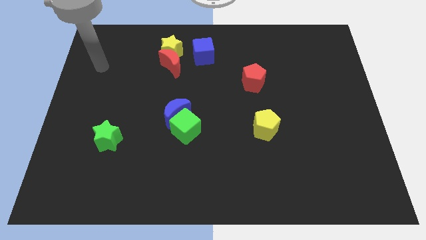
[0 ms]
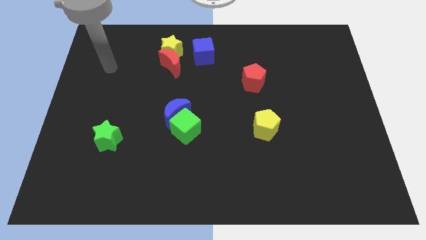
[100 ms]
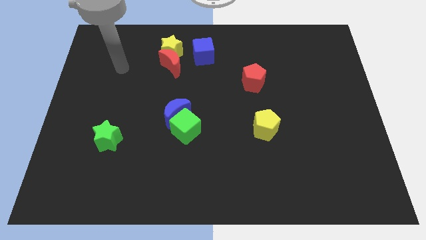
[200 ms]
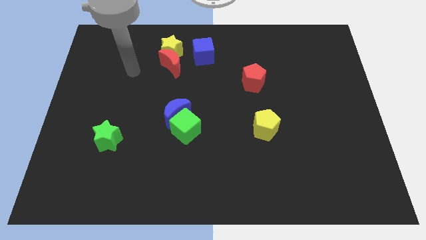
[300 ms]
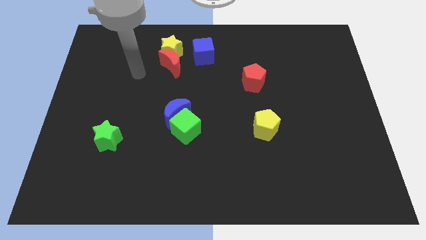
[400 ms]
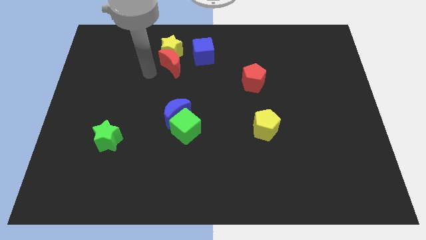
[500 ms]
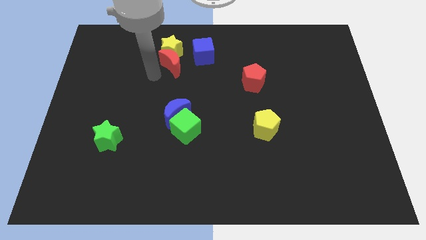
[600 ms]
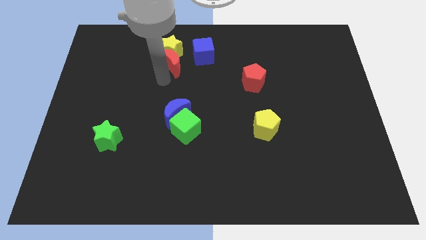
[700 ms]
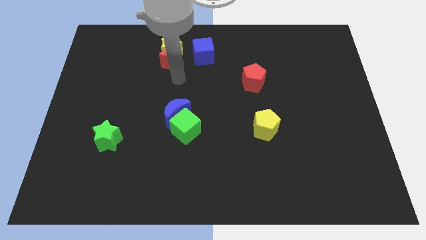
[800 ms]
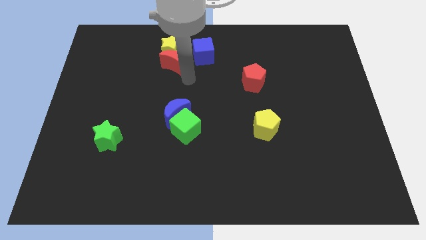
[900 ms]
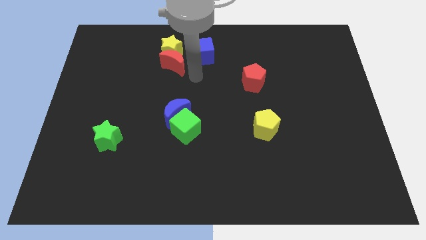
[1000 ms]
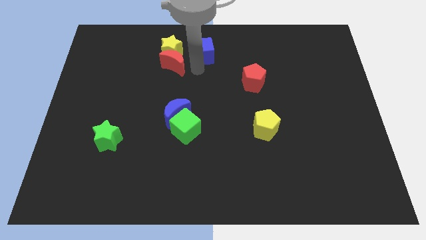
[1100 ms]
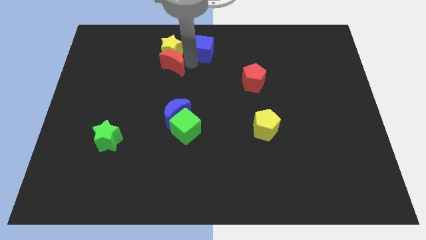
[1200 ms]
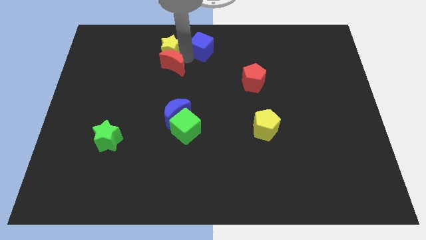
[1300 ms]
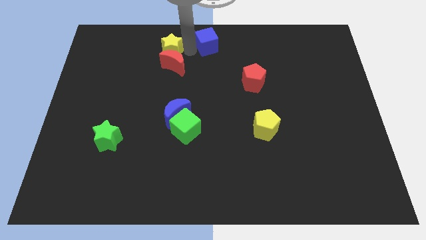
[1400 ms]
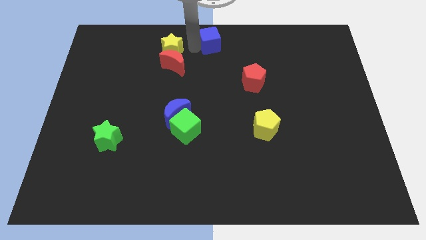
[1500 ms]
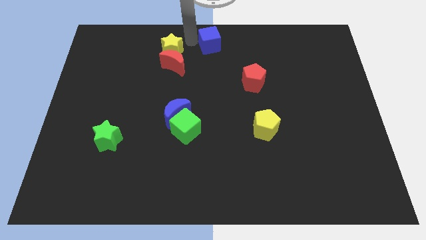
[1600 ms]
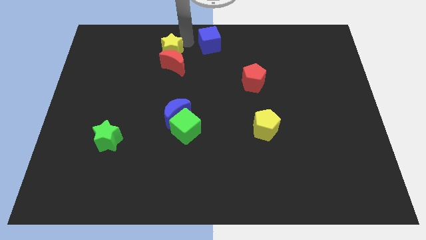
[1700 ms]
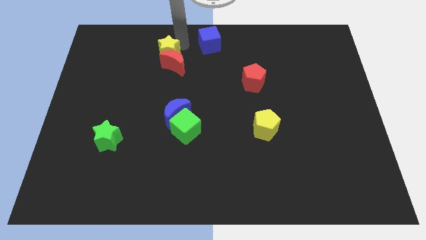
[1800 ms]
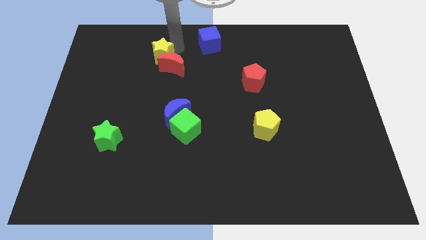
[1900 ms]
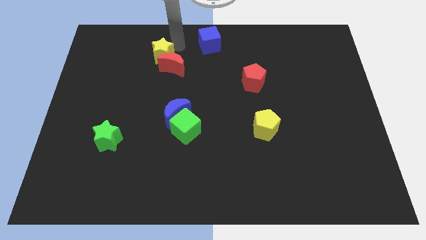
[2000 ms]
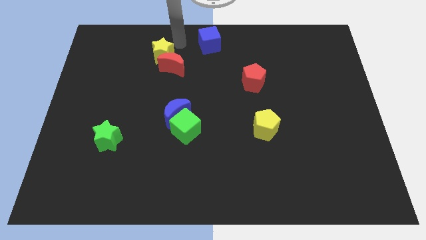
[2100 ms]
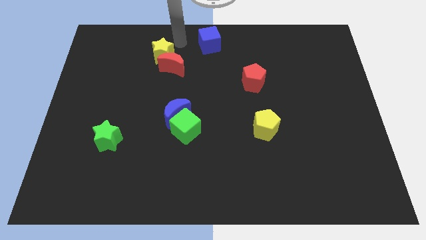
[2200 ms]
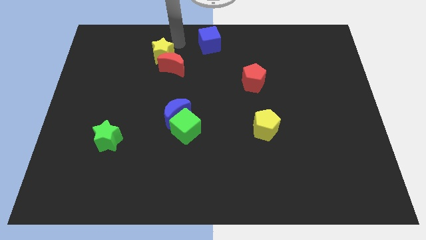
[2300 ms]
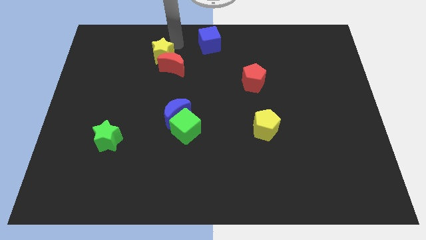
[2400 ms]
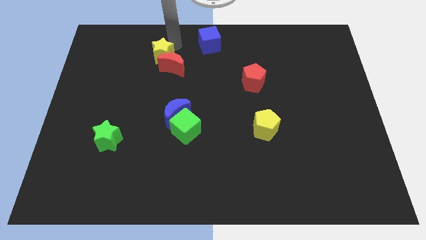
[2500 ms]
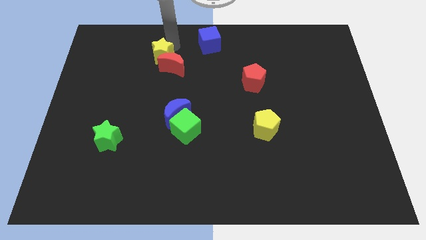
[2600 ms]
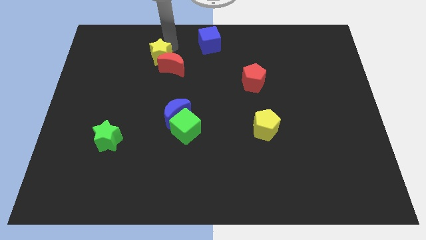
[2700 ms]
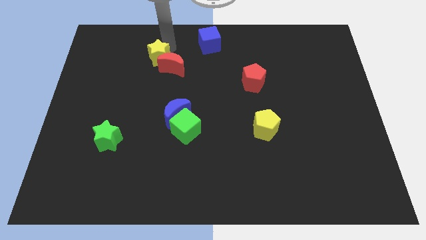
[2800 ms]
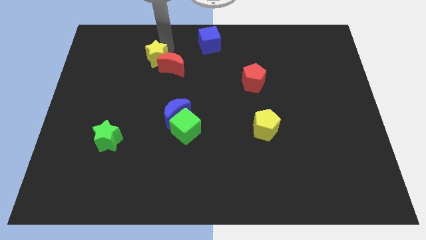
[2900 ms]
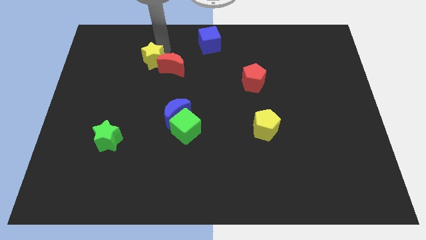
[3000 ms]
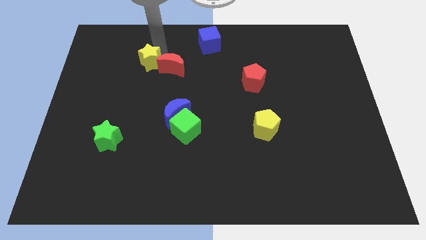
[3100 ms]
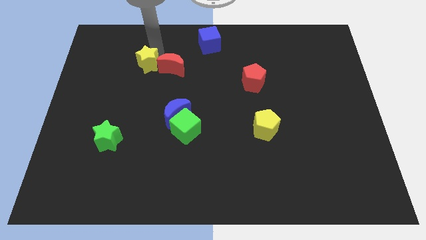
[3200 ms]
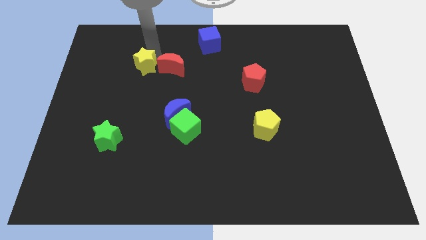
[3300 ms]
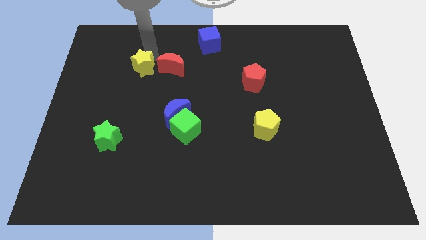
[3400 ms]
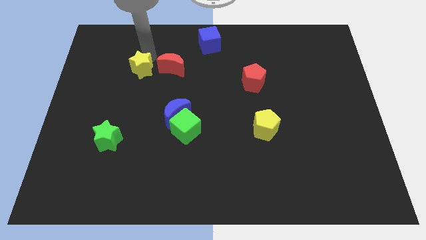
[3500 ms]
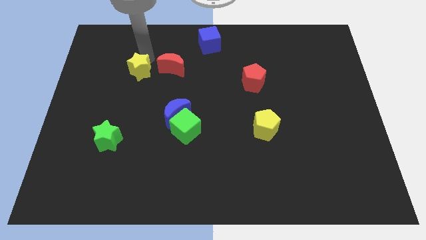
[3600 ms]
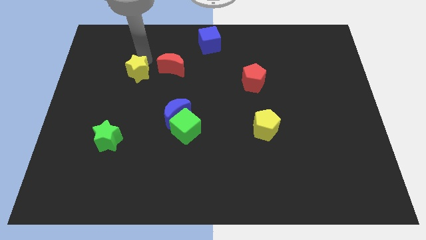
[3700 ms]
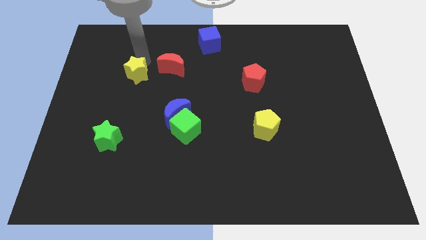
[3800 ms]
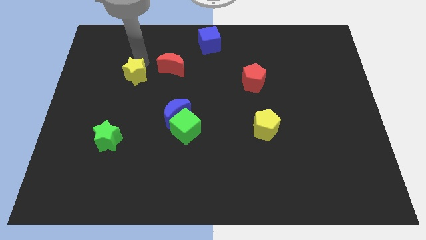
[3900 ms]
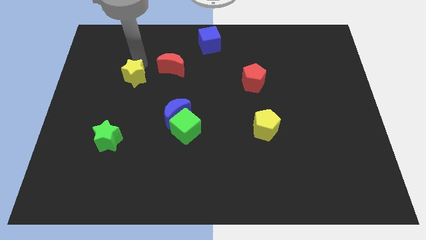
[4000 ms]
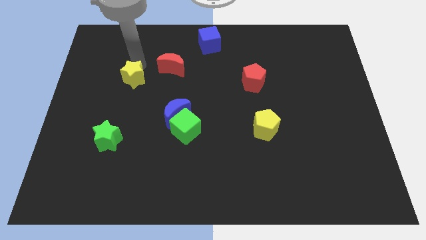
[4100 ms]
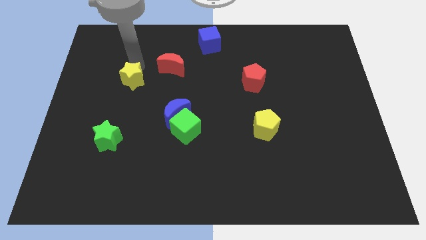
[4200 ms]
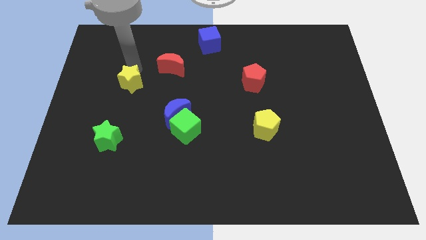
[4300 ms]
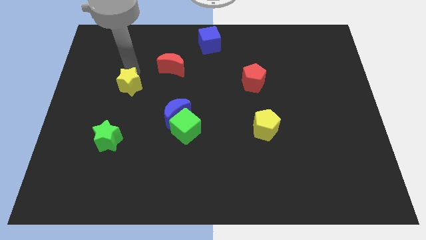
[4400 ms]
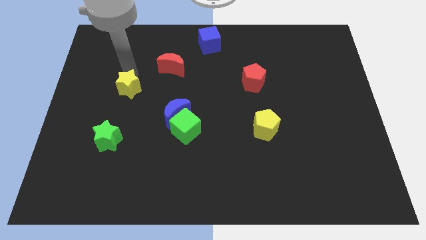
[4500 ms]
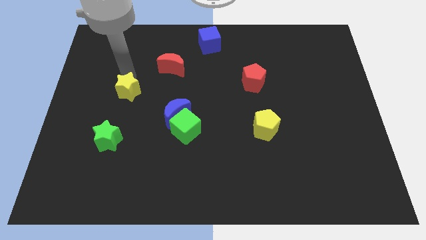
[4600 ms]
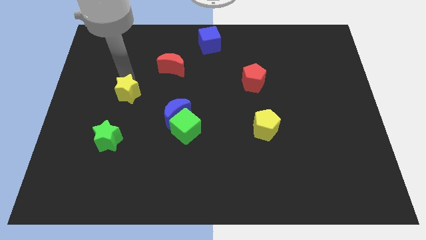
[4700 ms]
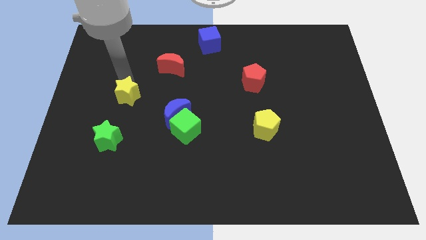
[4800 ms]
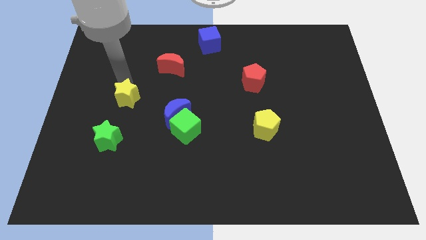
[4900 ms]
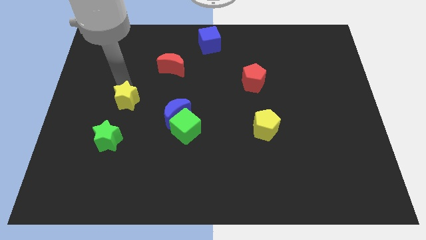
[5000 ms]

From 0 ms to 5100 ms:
put the yellow star to the left of the blue moon

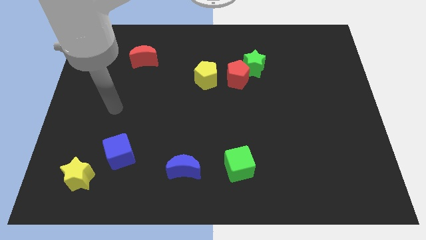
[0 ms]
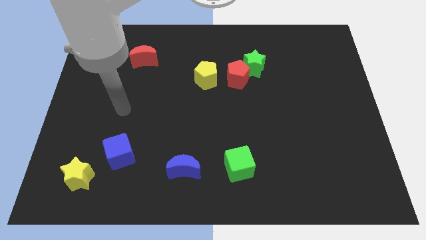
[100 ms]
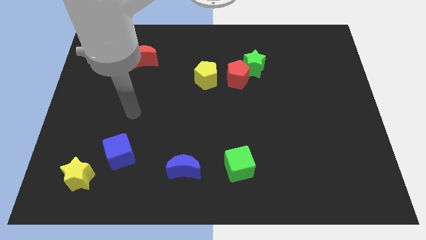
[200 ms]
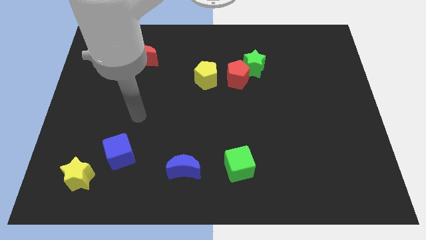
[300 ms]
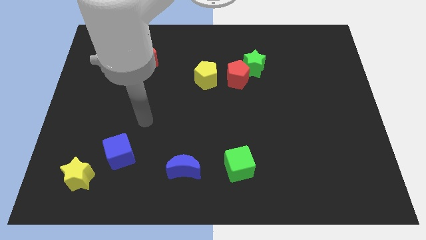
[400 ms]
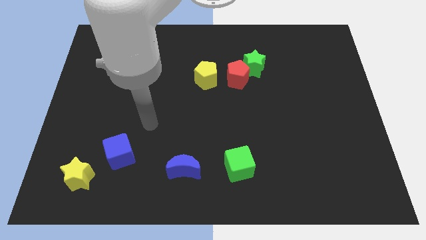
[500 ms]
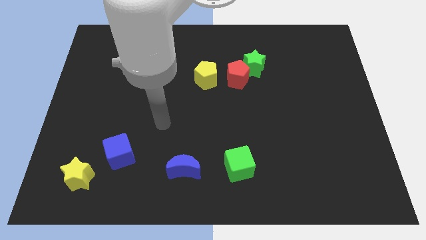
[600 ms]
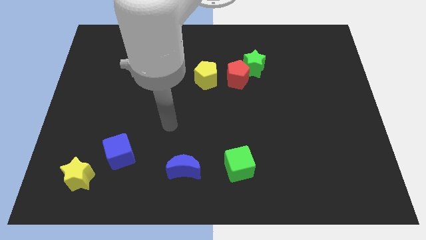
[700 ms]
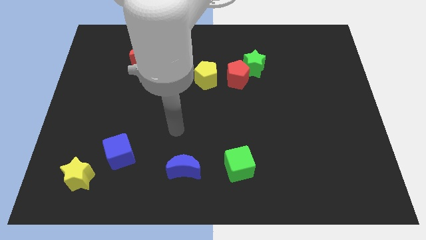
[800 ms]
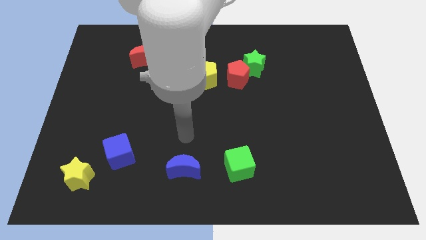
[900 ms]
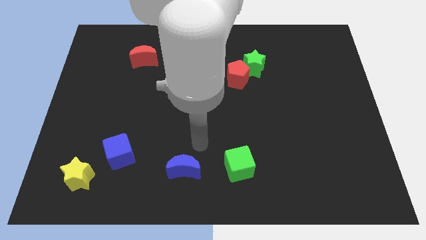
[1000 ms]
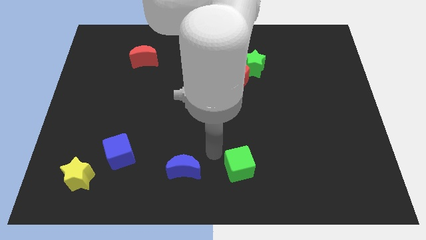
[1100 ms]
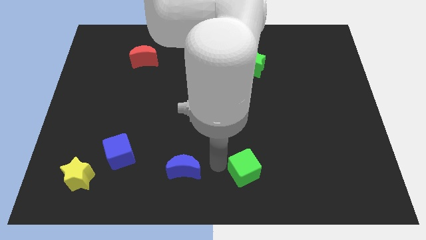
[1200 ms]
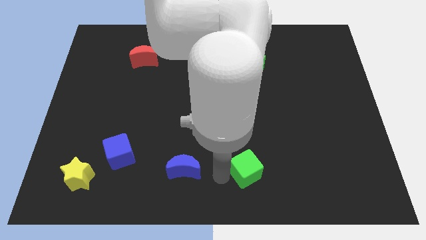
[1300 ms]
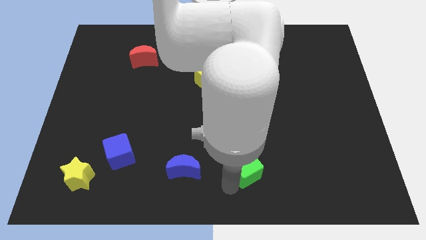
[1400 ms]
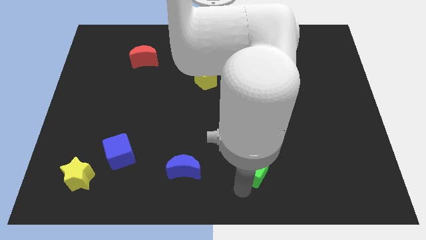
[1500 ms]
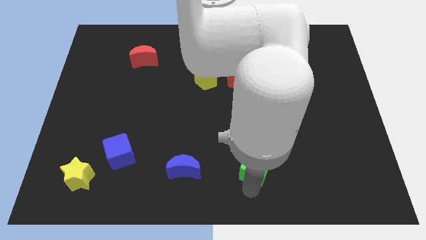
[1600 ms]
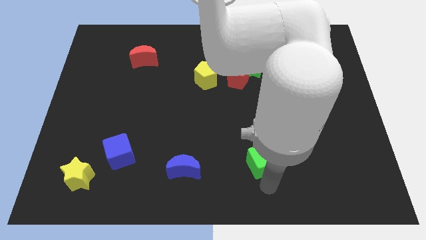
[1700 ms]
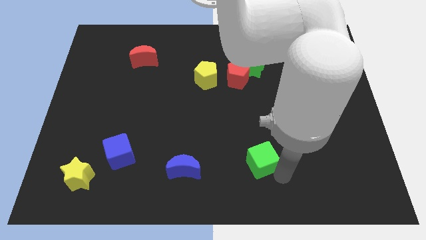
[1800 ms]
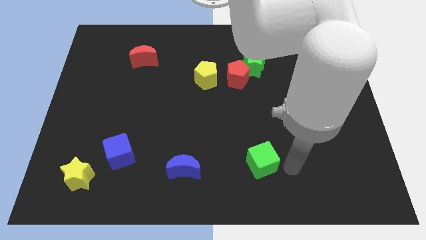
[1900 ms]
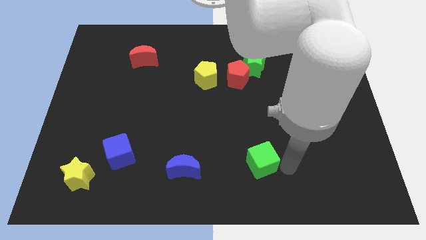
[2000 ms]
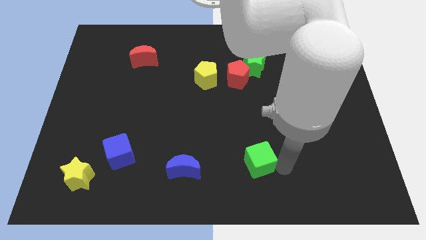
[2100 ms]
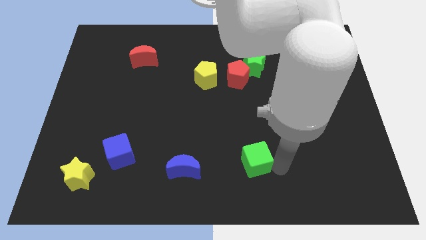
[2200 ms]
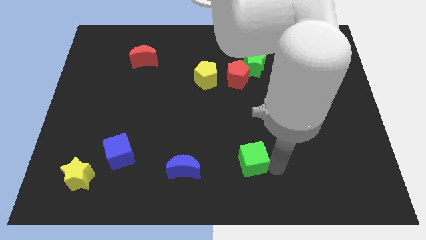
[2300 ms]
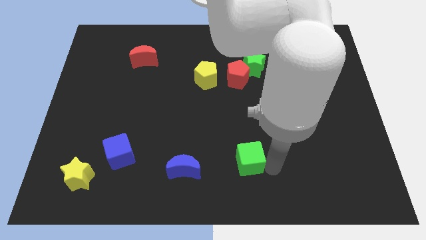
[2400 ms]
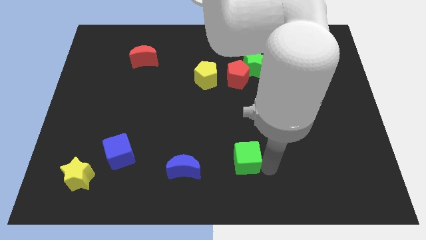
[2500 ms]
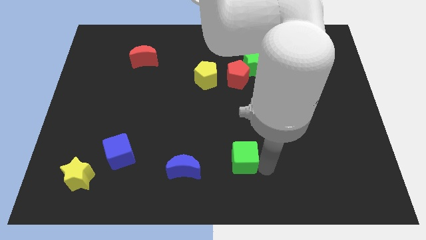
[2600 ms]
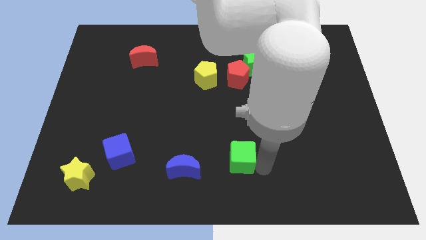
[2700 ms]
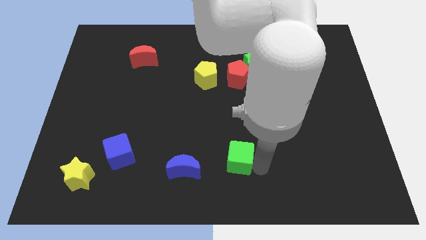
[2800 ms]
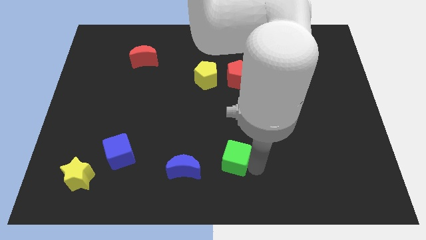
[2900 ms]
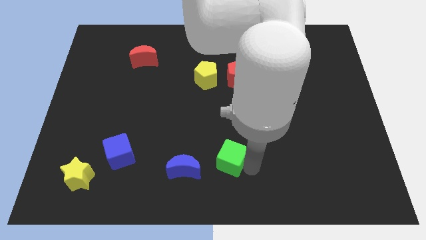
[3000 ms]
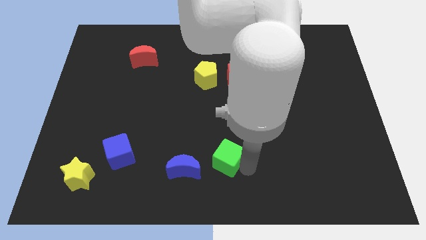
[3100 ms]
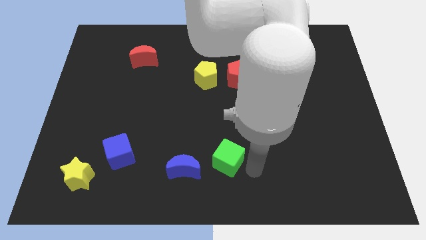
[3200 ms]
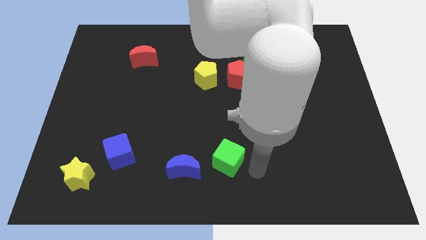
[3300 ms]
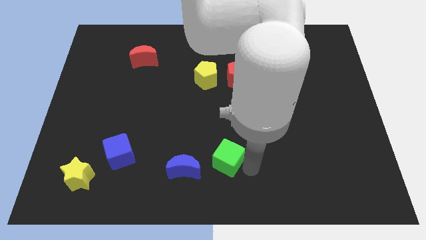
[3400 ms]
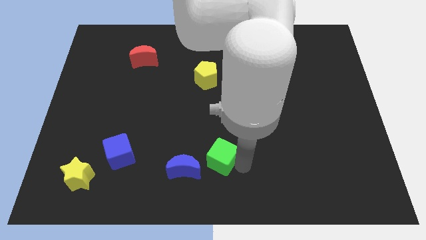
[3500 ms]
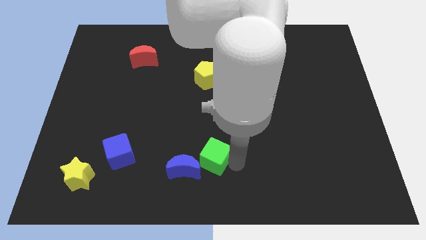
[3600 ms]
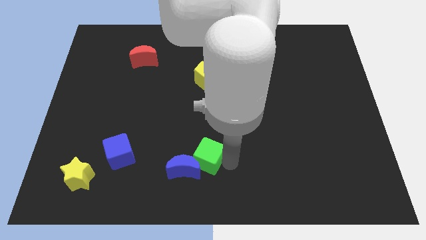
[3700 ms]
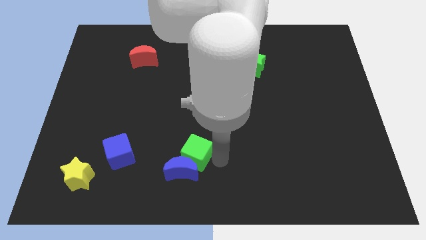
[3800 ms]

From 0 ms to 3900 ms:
slide the green cube right of the blue cube
